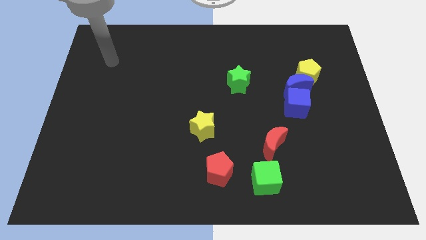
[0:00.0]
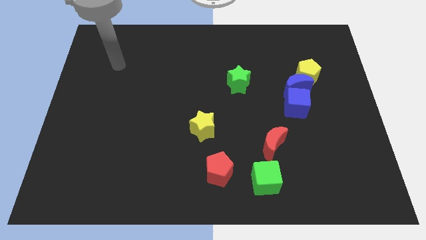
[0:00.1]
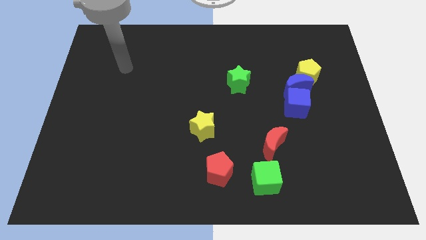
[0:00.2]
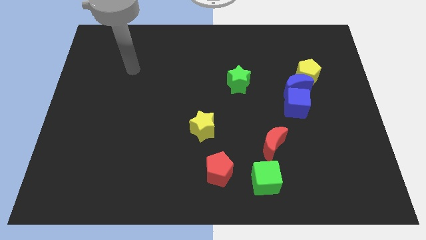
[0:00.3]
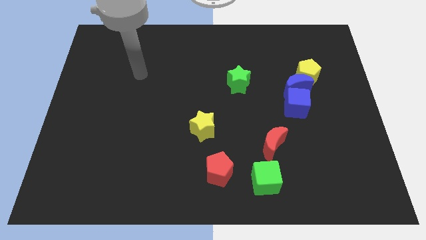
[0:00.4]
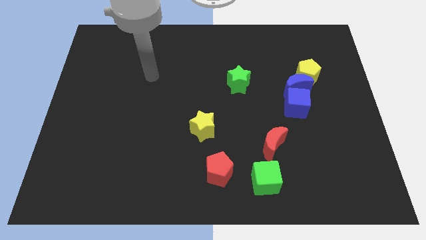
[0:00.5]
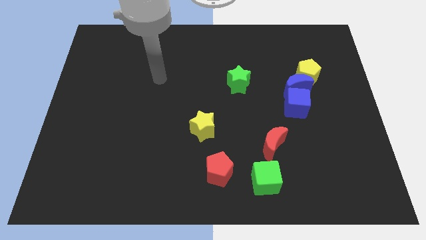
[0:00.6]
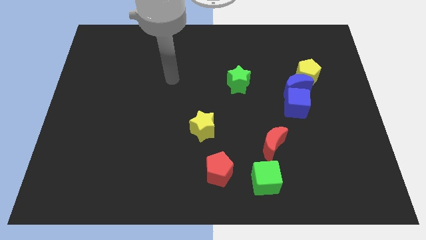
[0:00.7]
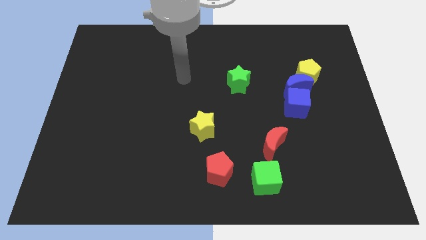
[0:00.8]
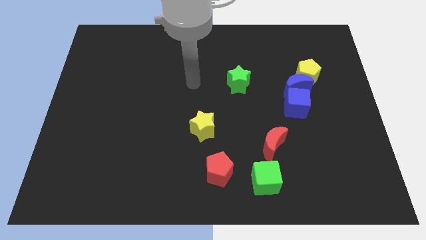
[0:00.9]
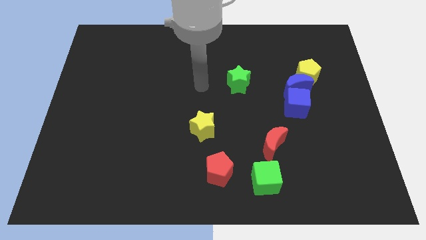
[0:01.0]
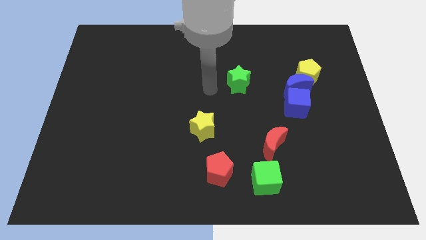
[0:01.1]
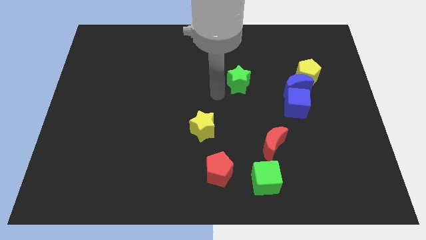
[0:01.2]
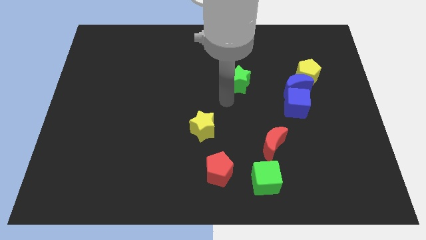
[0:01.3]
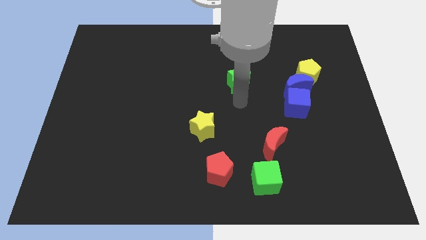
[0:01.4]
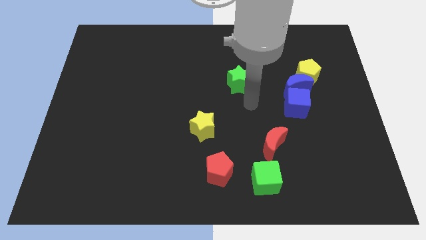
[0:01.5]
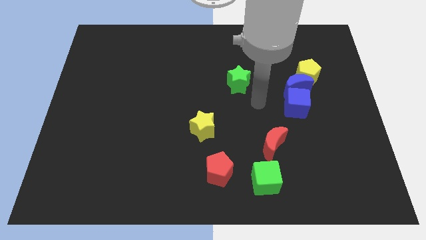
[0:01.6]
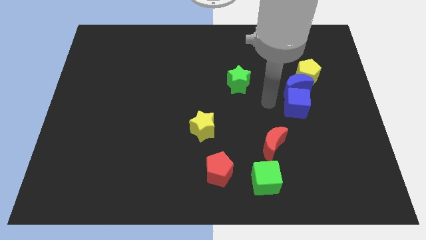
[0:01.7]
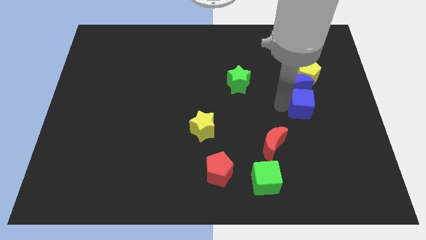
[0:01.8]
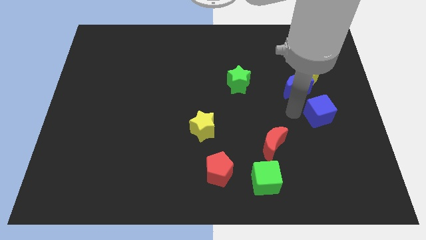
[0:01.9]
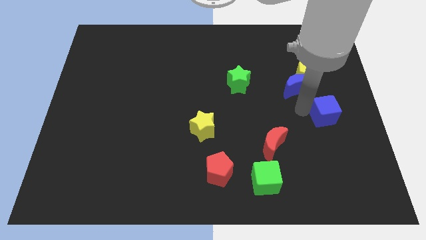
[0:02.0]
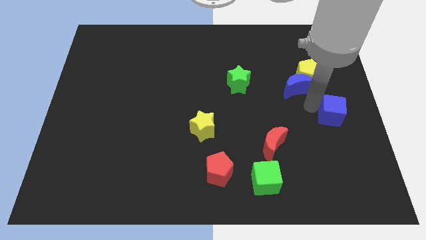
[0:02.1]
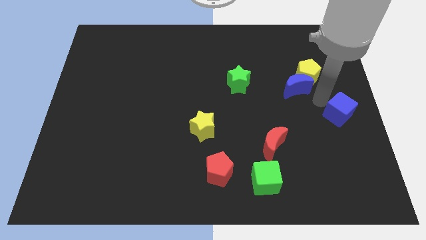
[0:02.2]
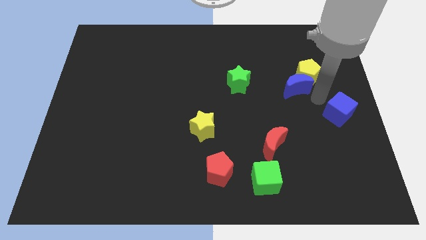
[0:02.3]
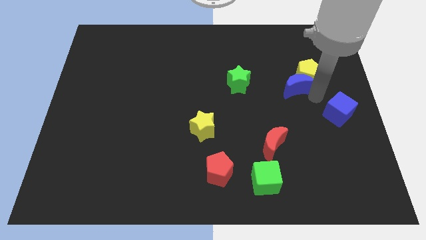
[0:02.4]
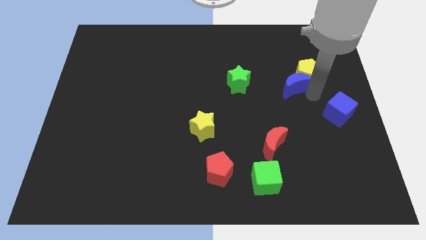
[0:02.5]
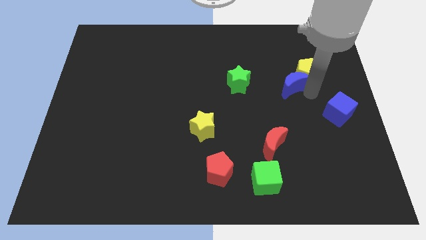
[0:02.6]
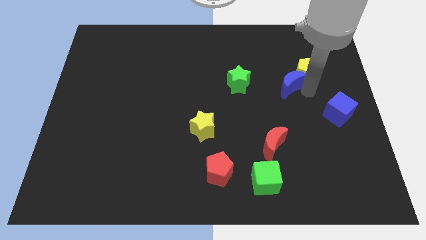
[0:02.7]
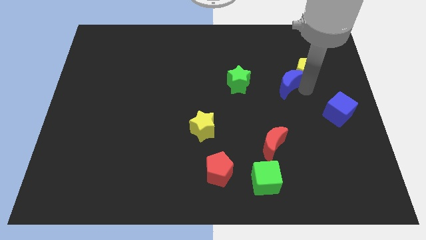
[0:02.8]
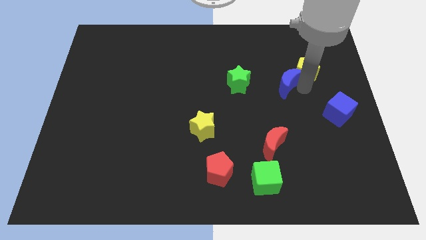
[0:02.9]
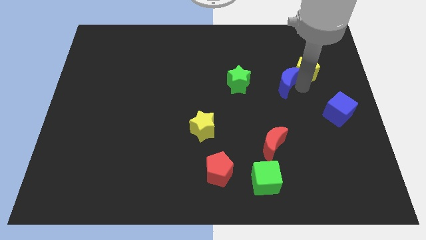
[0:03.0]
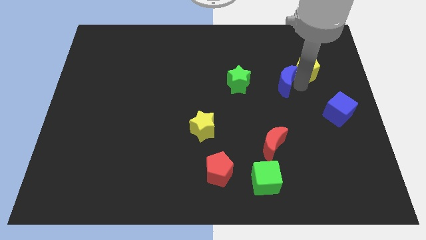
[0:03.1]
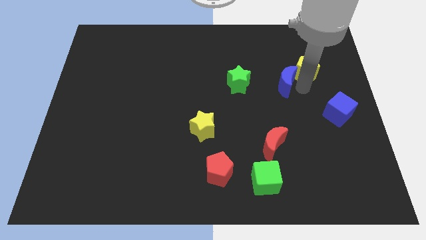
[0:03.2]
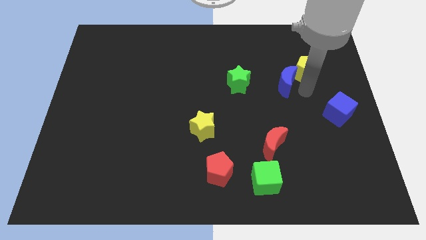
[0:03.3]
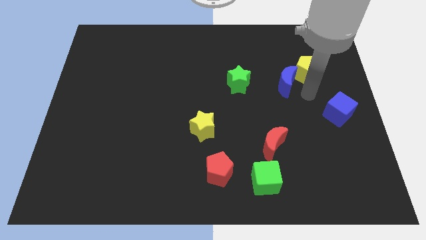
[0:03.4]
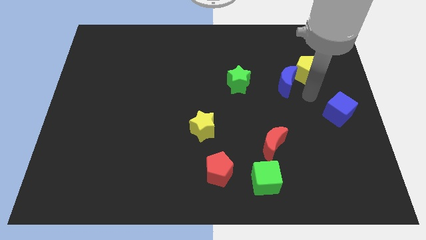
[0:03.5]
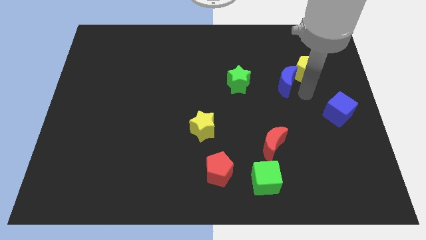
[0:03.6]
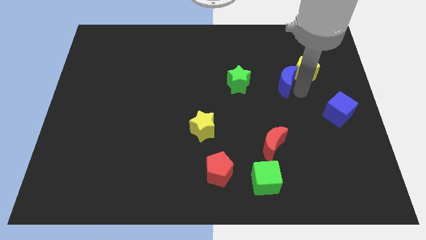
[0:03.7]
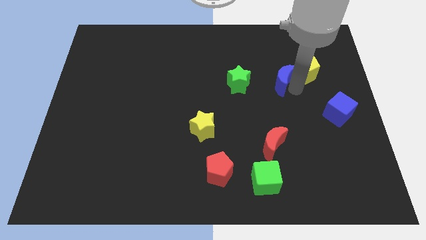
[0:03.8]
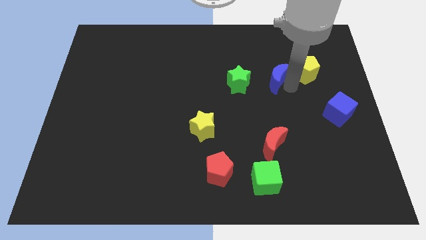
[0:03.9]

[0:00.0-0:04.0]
separate the blue moon from the yellow pentagon and blue cube

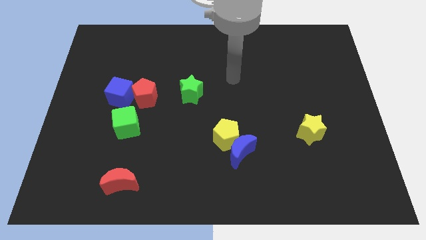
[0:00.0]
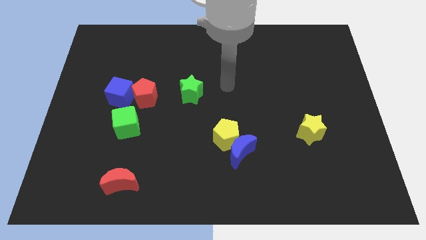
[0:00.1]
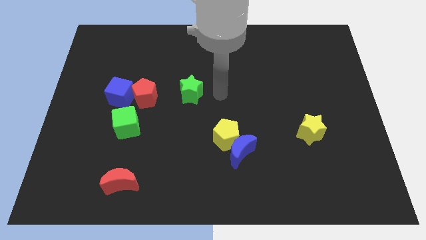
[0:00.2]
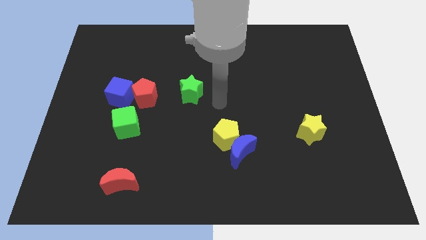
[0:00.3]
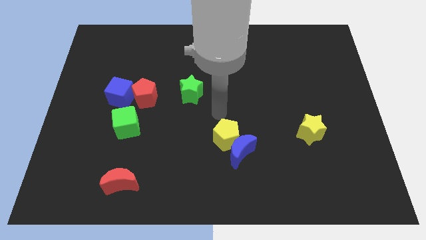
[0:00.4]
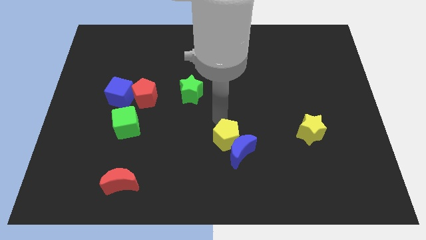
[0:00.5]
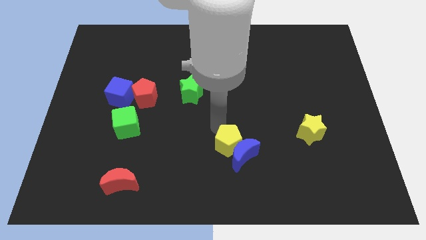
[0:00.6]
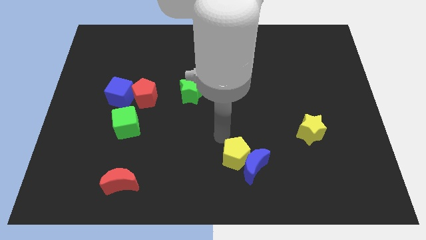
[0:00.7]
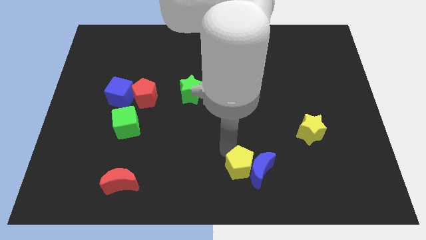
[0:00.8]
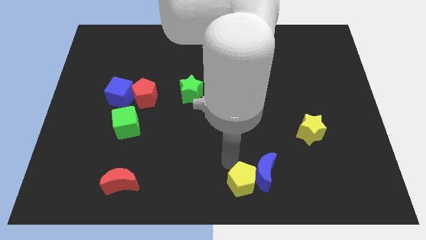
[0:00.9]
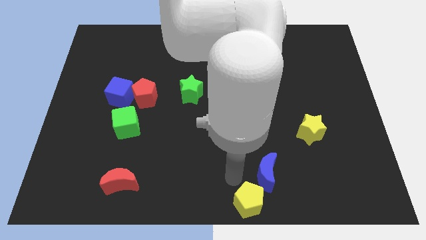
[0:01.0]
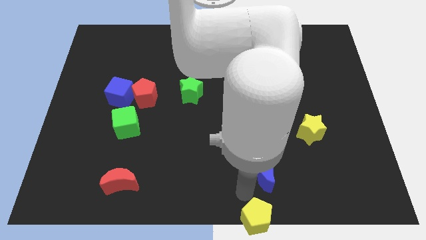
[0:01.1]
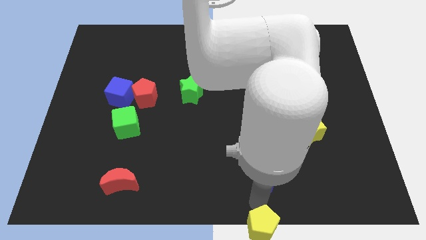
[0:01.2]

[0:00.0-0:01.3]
move the blue moon away from the yellow pentagon

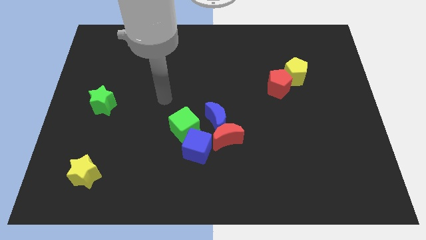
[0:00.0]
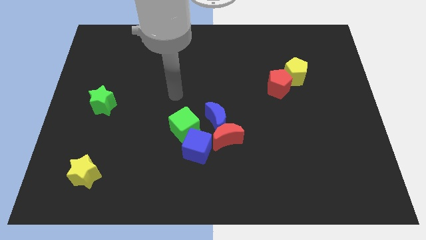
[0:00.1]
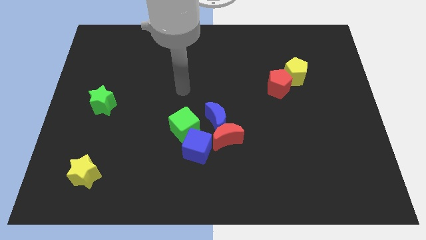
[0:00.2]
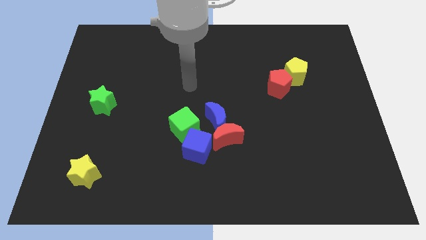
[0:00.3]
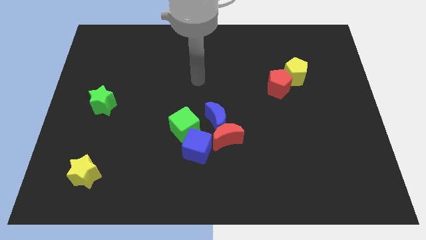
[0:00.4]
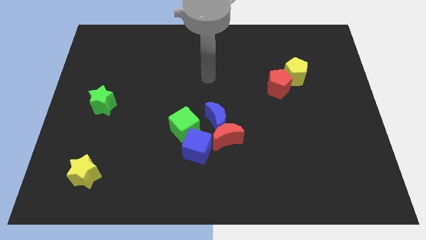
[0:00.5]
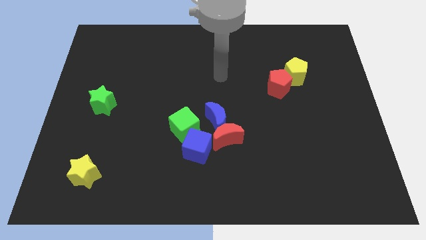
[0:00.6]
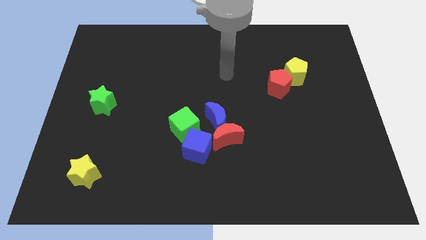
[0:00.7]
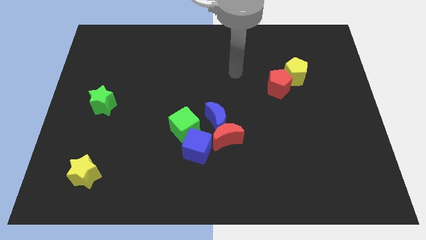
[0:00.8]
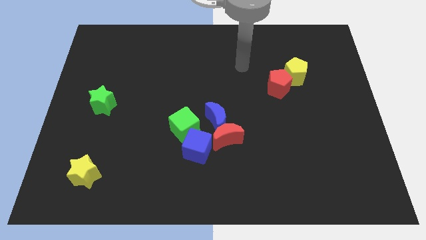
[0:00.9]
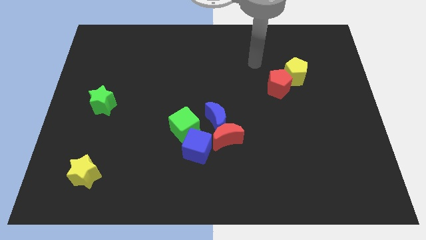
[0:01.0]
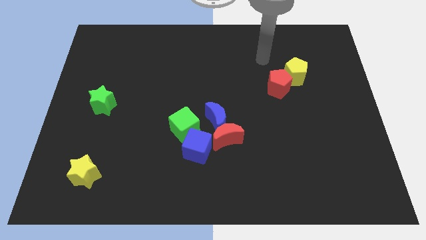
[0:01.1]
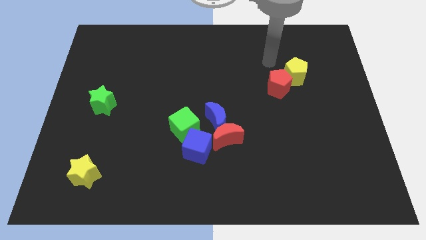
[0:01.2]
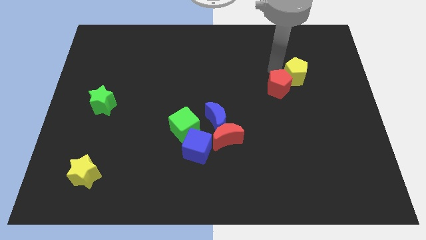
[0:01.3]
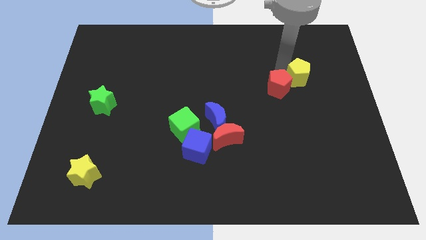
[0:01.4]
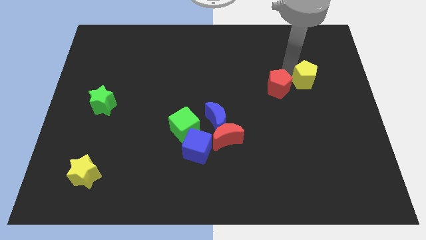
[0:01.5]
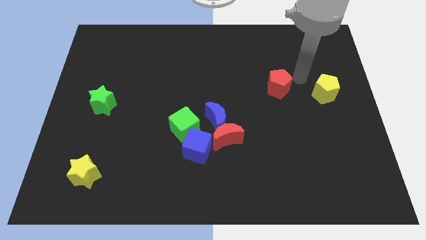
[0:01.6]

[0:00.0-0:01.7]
pull the red pentagon apart from the yellow pentagon

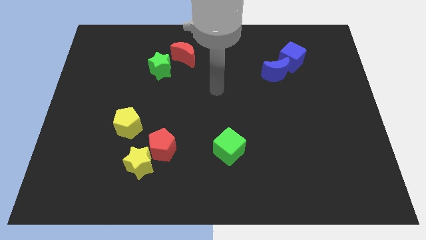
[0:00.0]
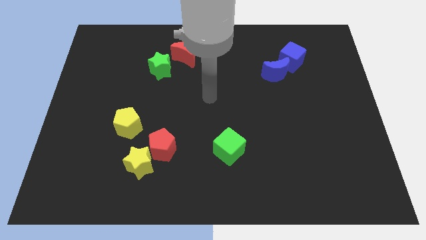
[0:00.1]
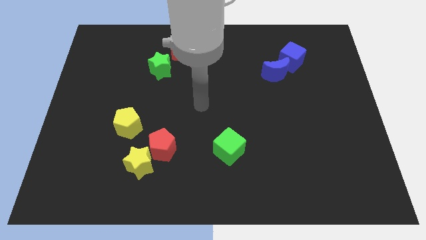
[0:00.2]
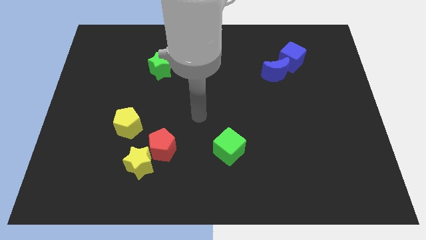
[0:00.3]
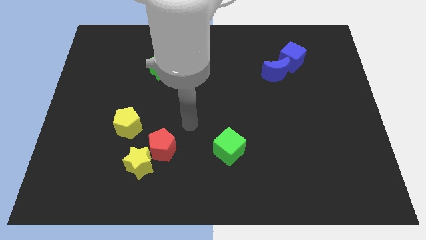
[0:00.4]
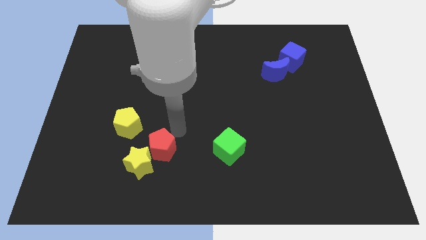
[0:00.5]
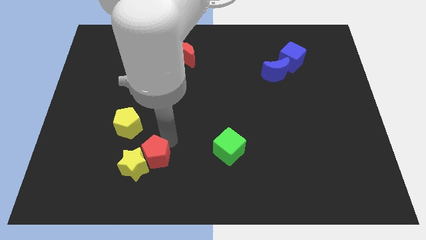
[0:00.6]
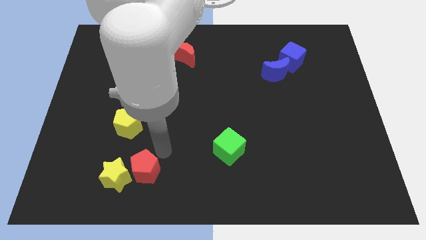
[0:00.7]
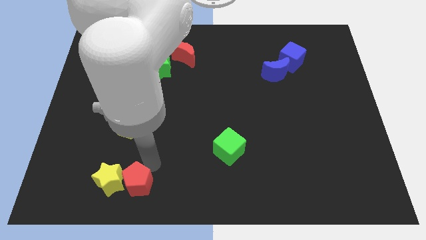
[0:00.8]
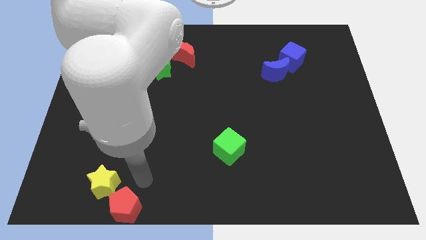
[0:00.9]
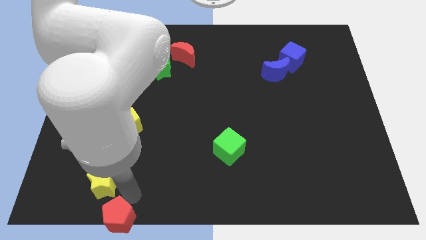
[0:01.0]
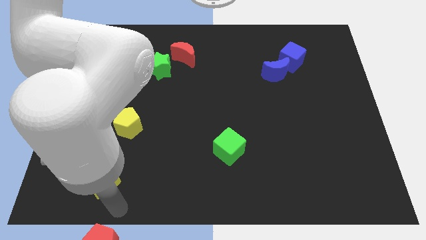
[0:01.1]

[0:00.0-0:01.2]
pull the yellow star apart from the red pentagon

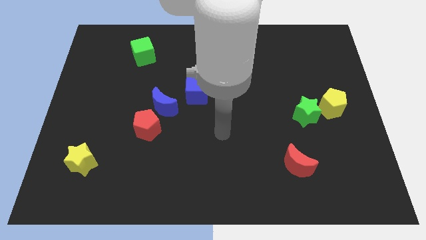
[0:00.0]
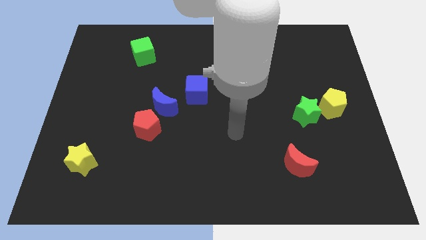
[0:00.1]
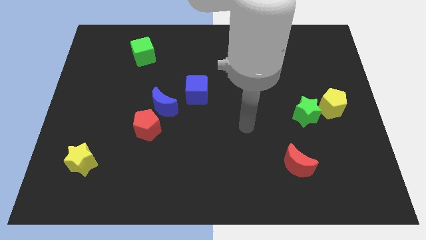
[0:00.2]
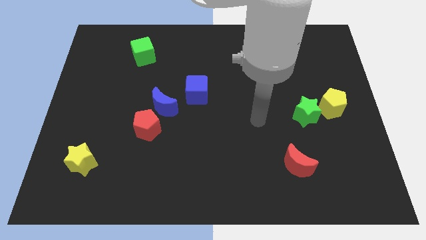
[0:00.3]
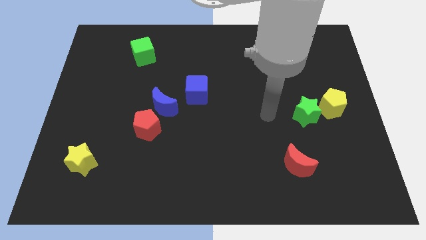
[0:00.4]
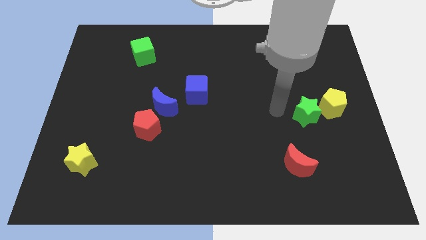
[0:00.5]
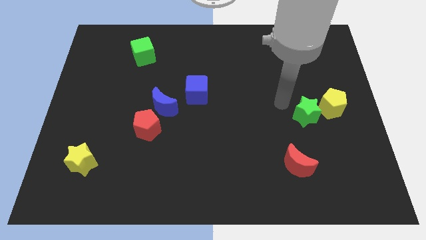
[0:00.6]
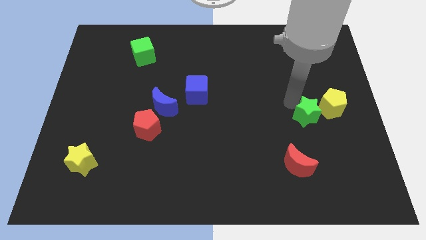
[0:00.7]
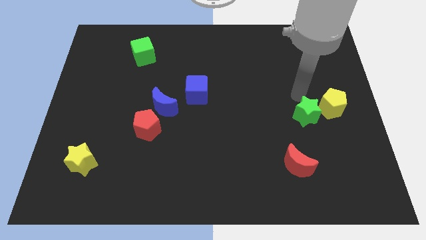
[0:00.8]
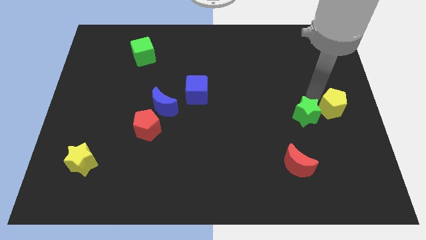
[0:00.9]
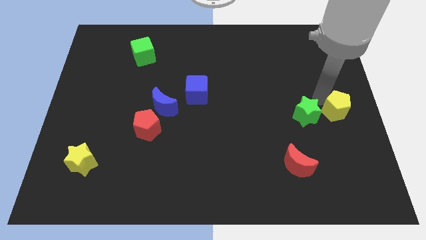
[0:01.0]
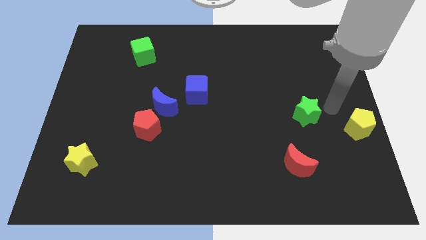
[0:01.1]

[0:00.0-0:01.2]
separate the green star from the yellow pentagon
